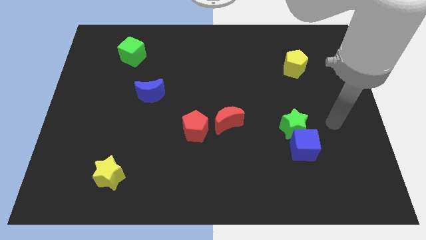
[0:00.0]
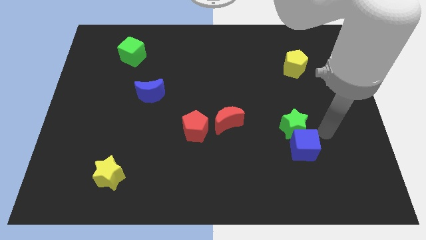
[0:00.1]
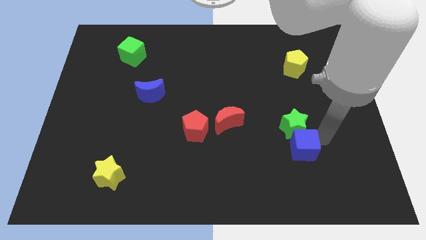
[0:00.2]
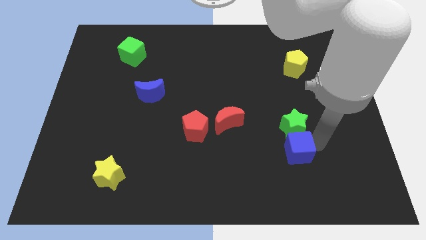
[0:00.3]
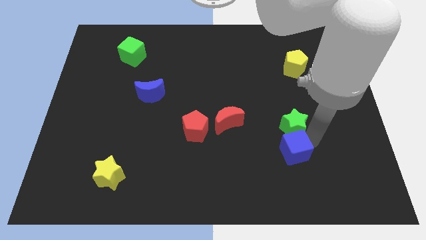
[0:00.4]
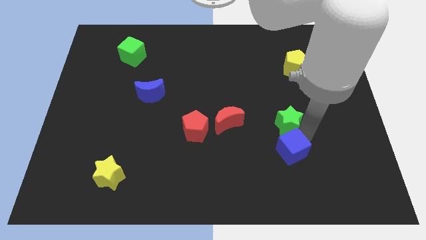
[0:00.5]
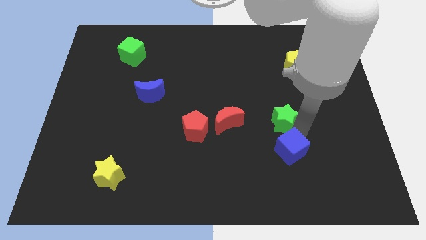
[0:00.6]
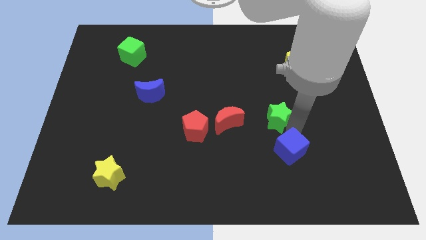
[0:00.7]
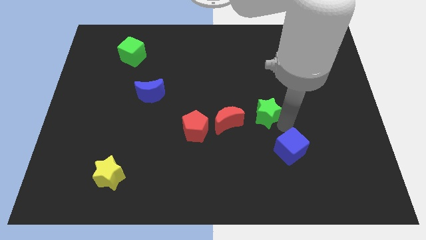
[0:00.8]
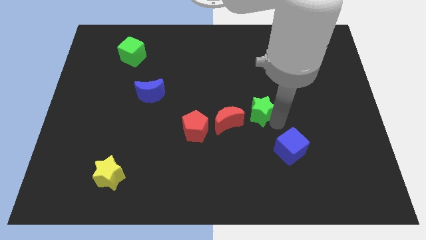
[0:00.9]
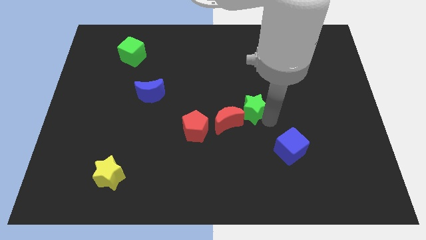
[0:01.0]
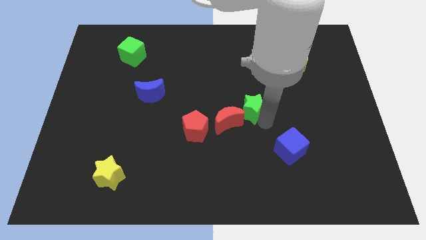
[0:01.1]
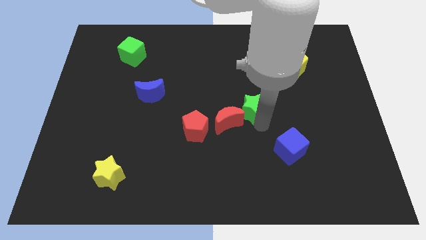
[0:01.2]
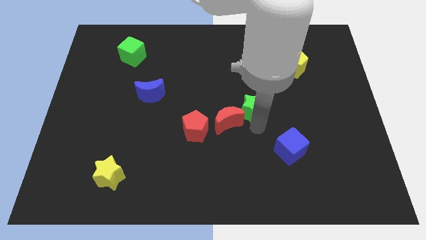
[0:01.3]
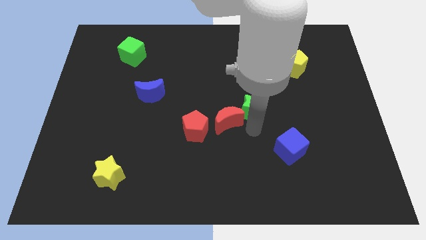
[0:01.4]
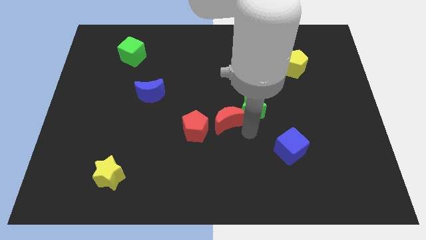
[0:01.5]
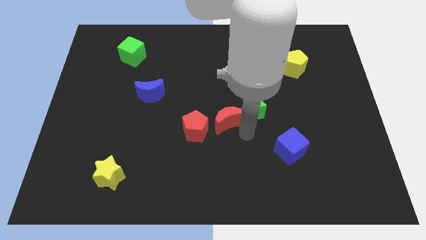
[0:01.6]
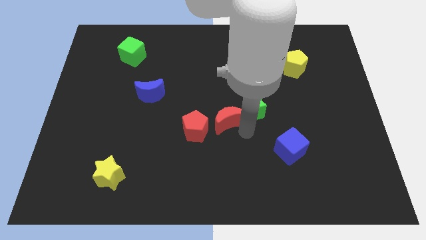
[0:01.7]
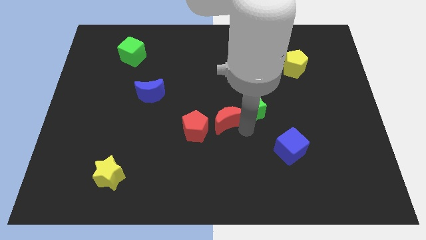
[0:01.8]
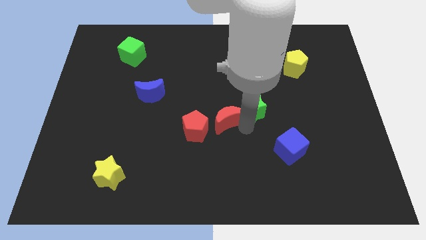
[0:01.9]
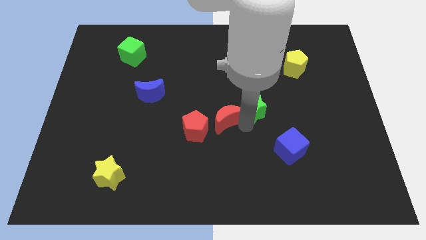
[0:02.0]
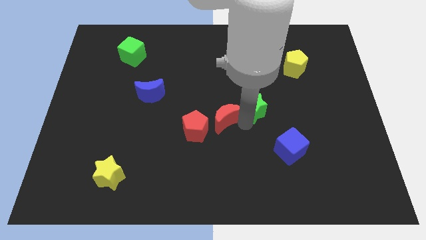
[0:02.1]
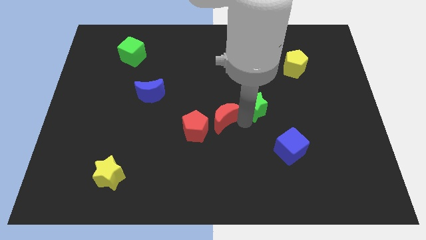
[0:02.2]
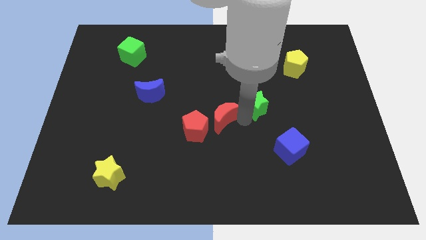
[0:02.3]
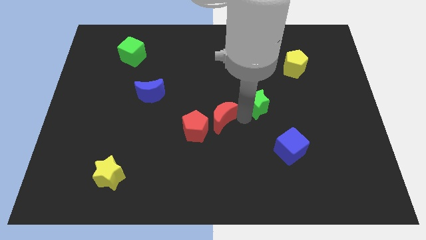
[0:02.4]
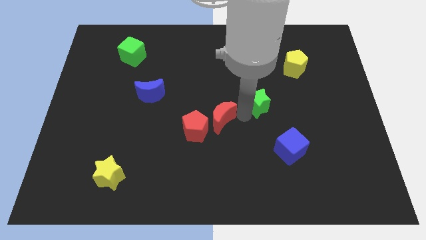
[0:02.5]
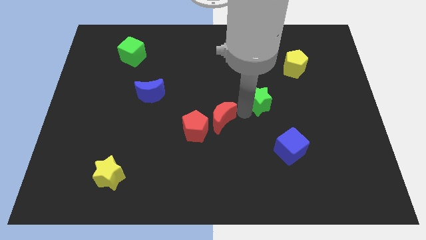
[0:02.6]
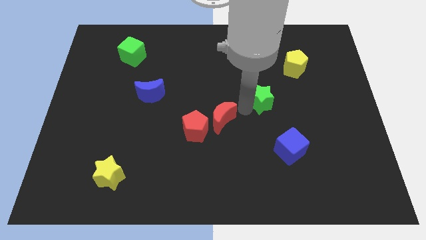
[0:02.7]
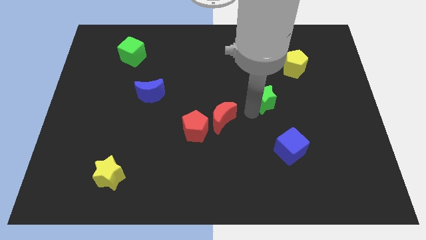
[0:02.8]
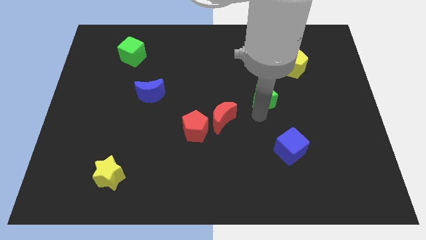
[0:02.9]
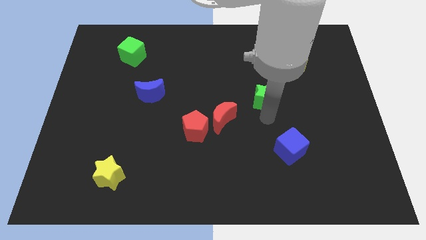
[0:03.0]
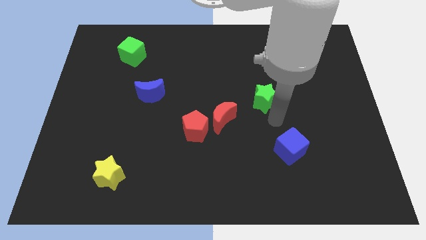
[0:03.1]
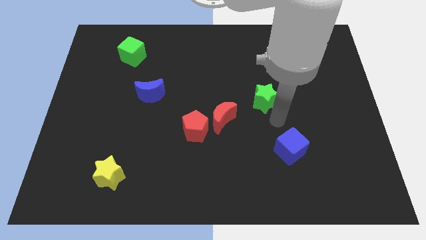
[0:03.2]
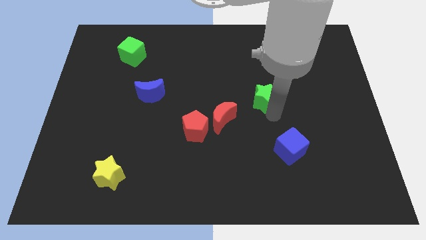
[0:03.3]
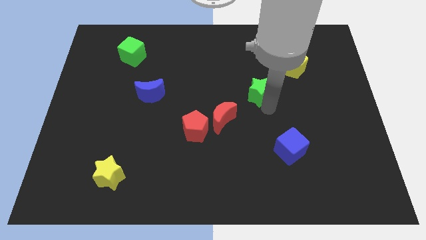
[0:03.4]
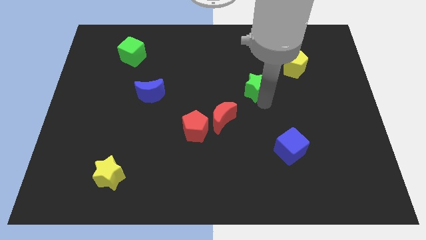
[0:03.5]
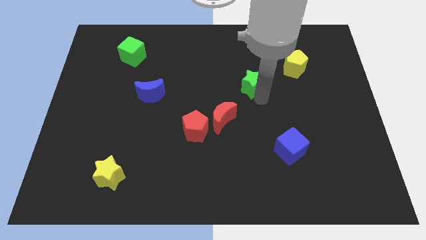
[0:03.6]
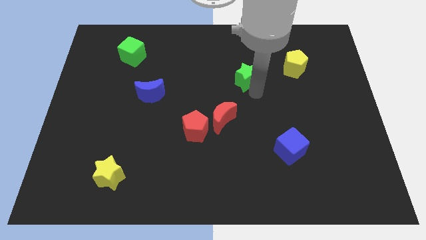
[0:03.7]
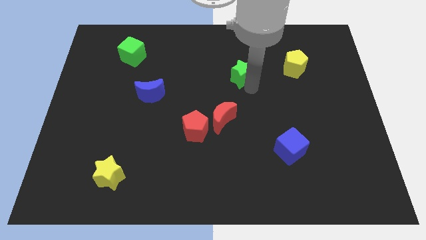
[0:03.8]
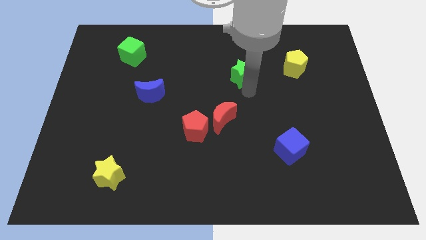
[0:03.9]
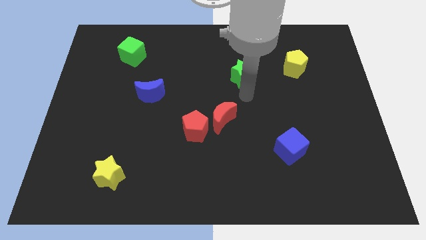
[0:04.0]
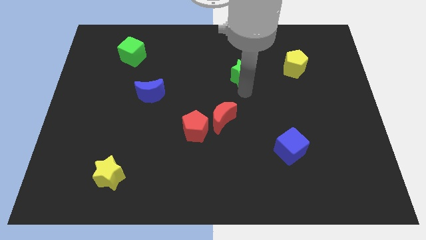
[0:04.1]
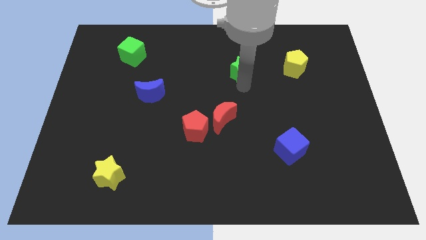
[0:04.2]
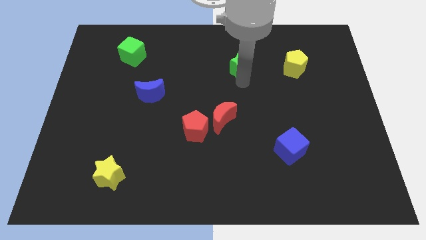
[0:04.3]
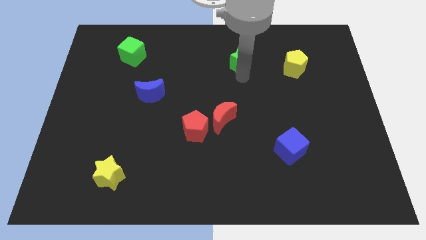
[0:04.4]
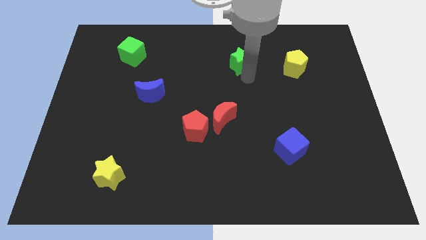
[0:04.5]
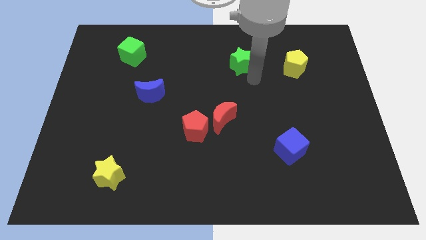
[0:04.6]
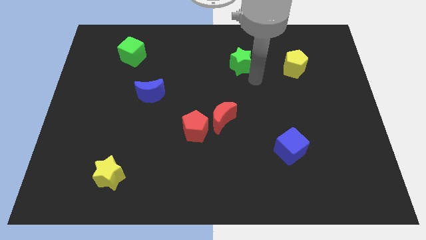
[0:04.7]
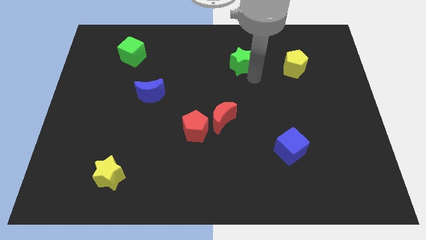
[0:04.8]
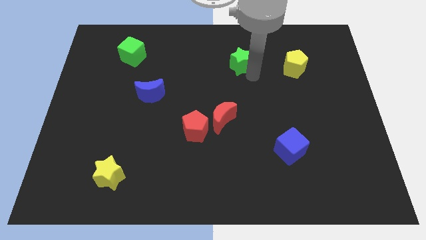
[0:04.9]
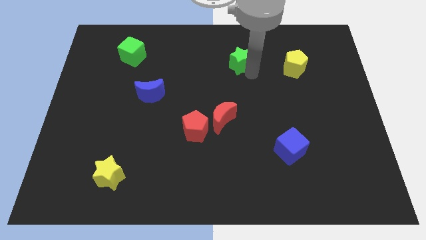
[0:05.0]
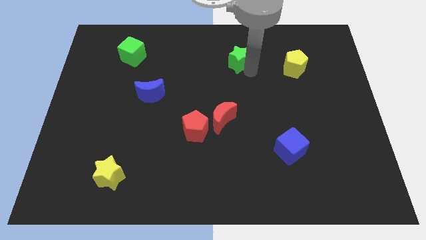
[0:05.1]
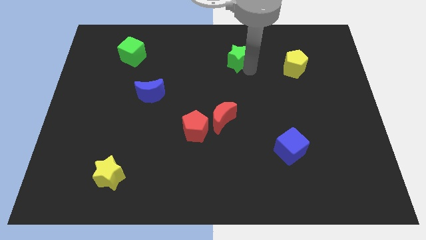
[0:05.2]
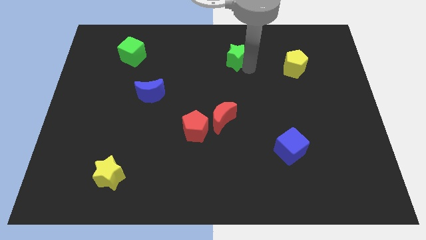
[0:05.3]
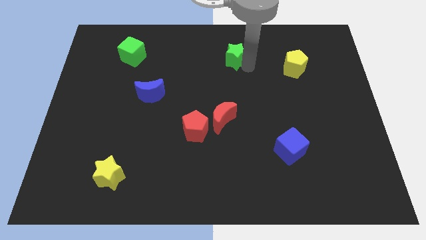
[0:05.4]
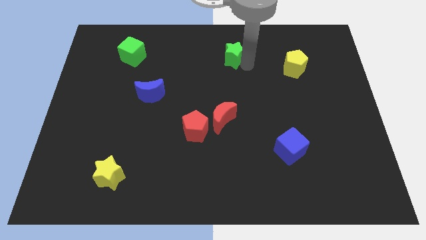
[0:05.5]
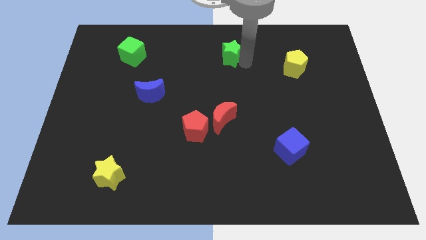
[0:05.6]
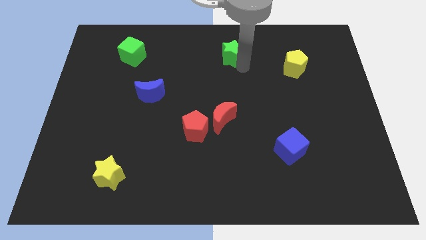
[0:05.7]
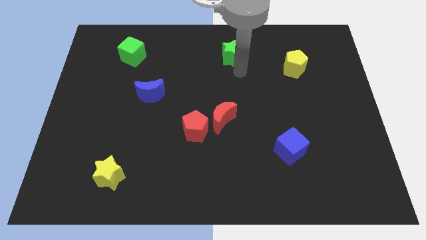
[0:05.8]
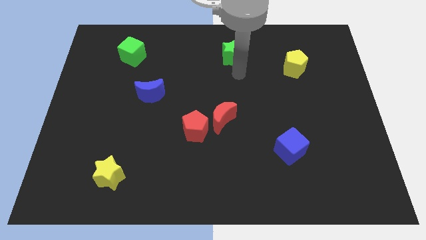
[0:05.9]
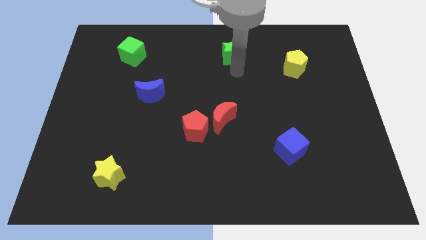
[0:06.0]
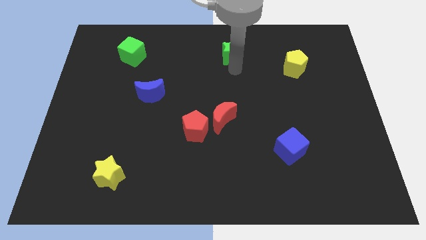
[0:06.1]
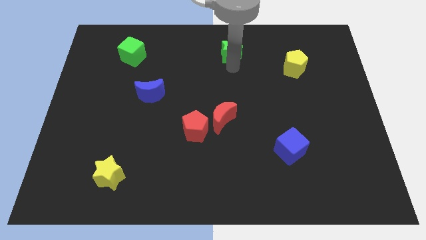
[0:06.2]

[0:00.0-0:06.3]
put the green star to the top
